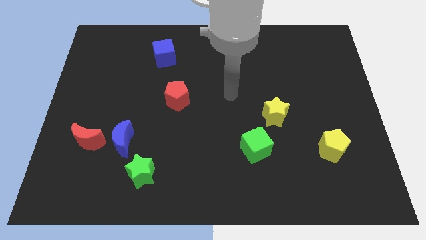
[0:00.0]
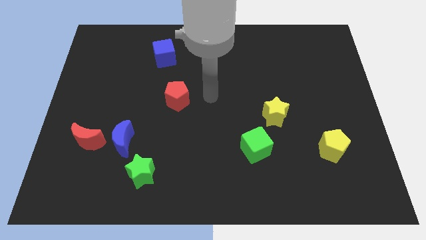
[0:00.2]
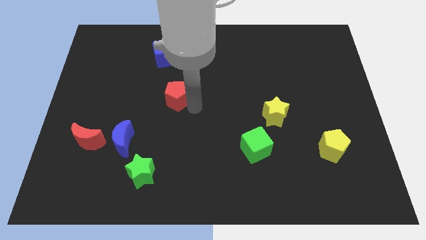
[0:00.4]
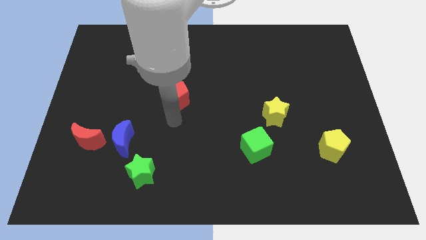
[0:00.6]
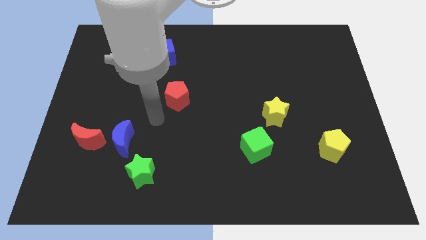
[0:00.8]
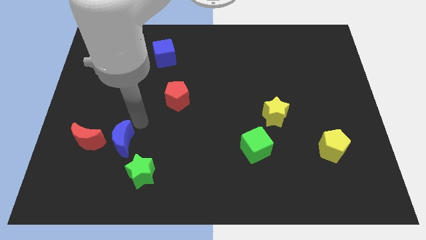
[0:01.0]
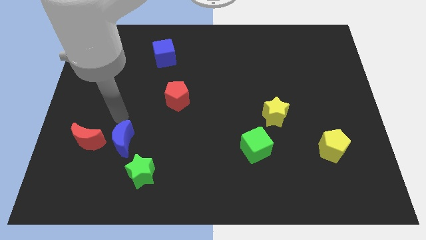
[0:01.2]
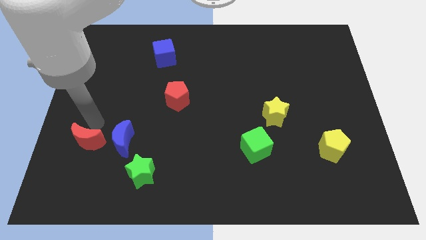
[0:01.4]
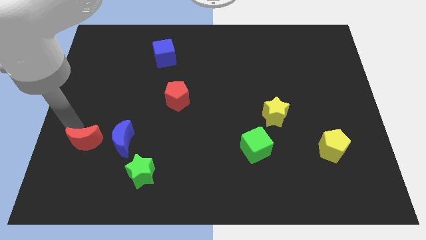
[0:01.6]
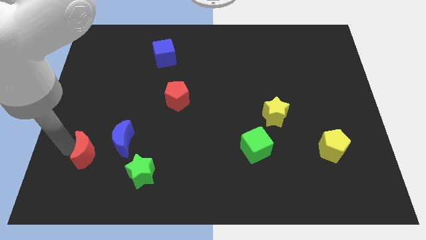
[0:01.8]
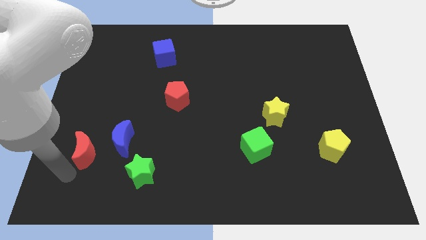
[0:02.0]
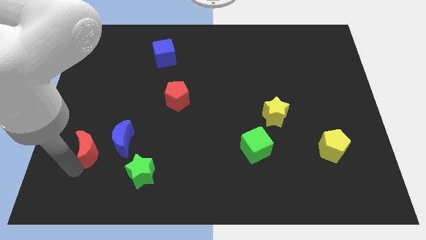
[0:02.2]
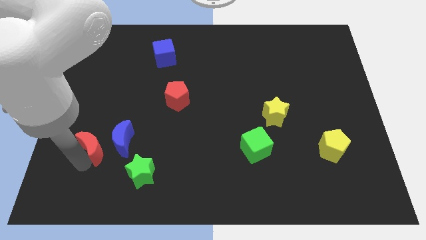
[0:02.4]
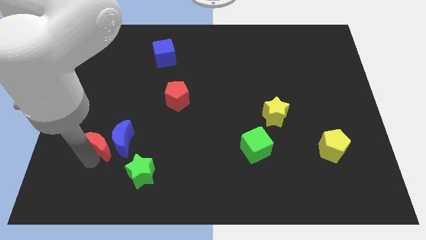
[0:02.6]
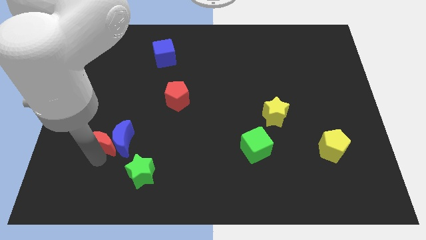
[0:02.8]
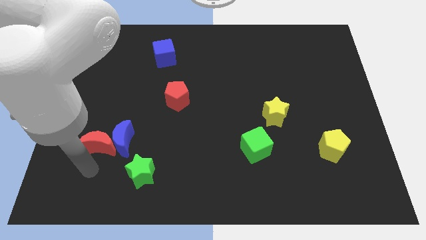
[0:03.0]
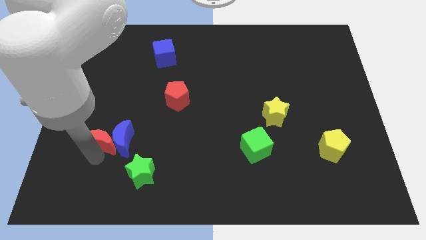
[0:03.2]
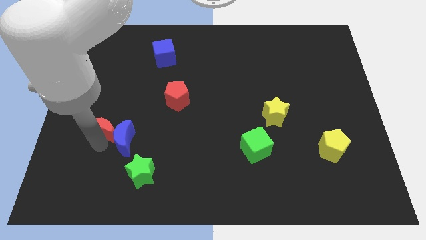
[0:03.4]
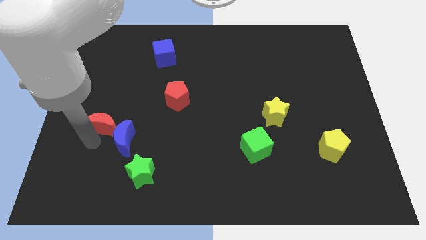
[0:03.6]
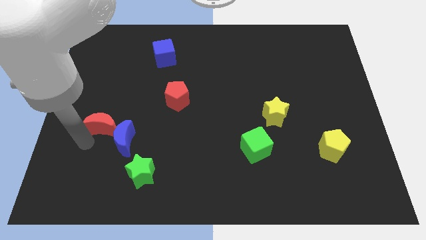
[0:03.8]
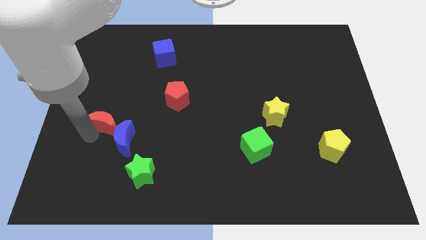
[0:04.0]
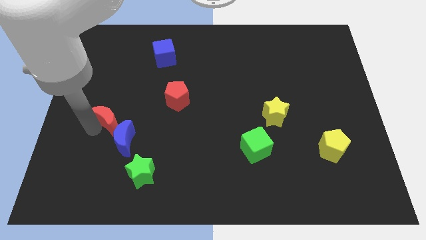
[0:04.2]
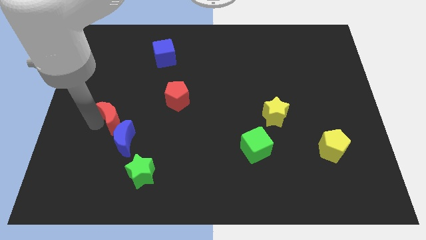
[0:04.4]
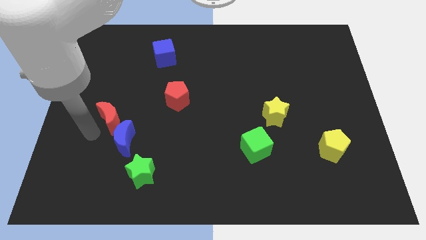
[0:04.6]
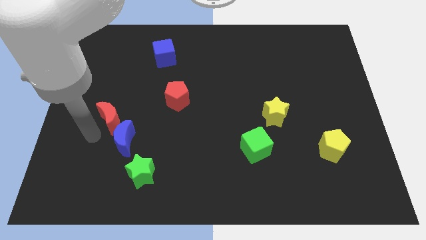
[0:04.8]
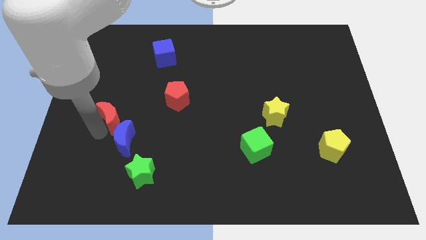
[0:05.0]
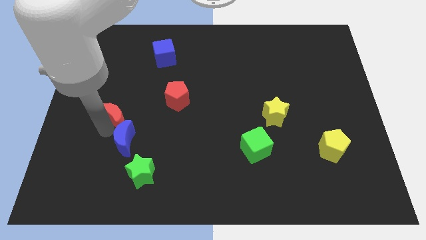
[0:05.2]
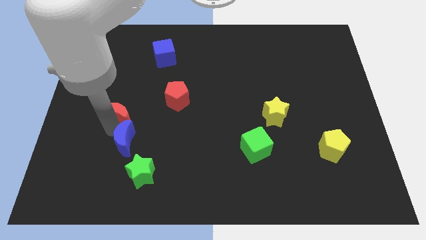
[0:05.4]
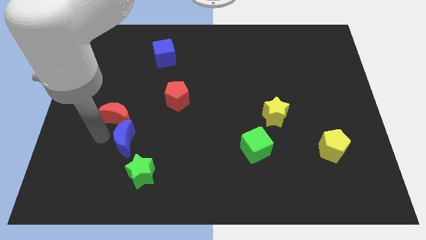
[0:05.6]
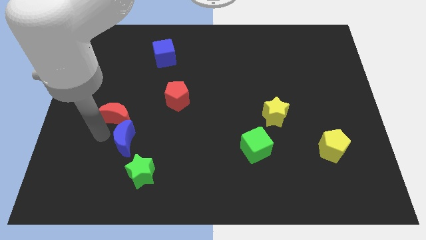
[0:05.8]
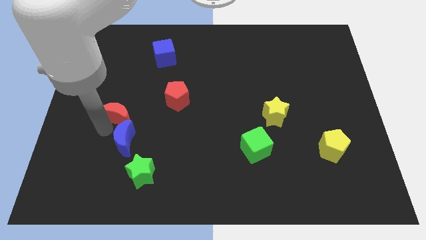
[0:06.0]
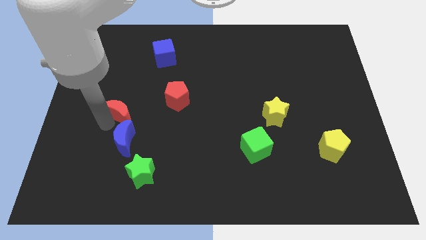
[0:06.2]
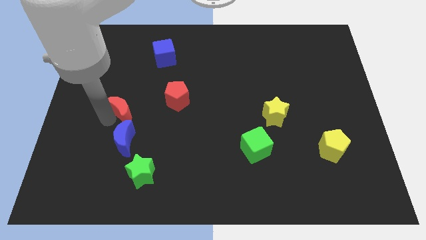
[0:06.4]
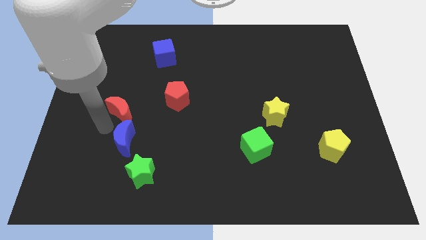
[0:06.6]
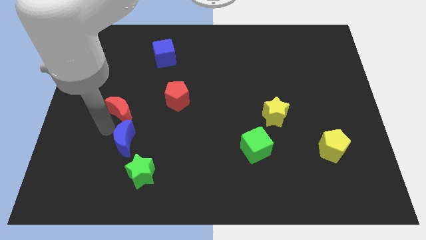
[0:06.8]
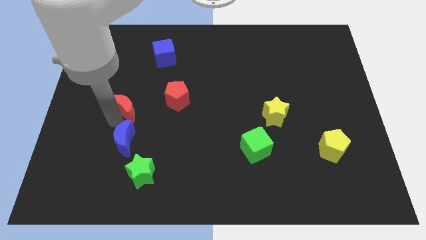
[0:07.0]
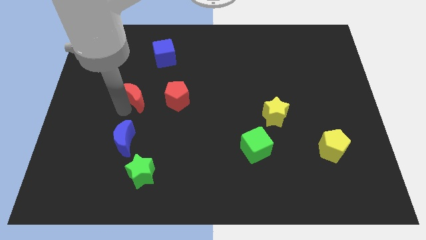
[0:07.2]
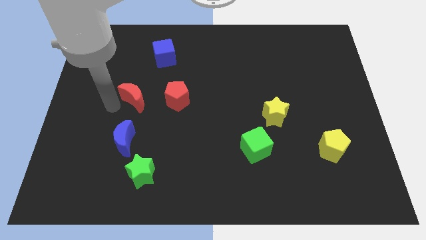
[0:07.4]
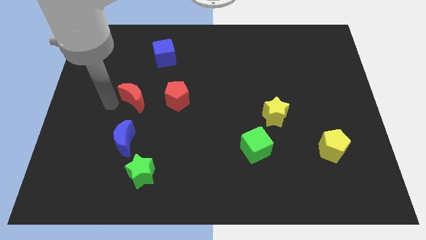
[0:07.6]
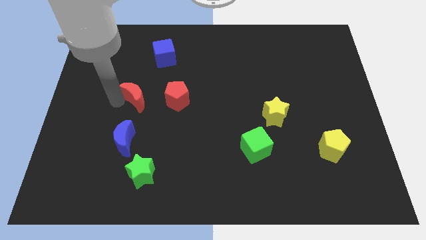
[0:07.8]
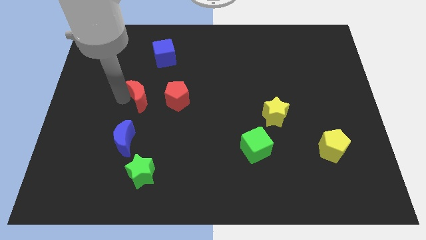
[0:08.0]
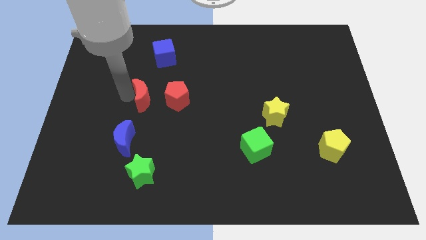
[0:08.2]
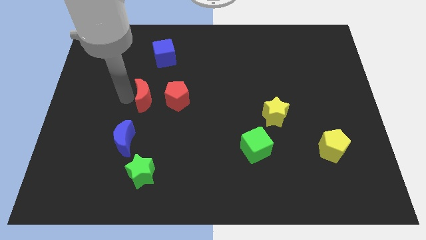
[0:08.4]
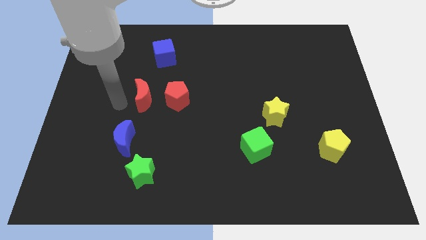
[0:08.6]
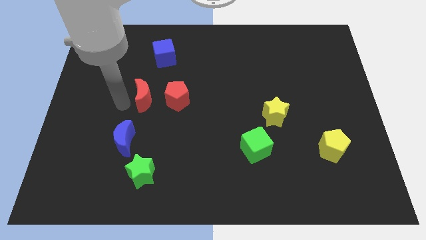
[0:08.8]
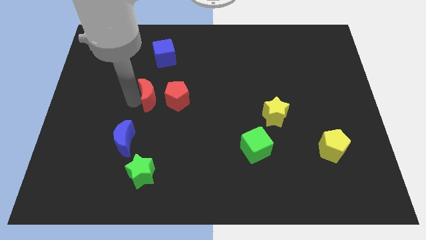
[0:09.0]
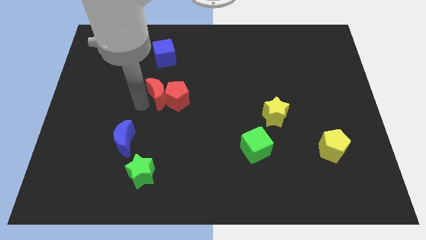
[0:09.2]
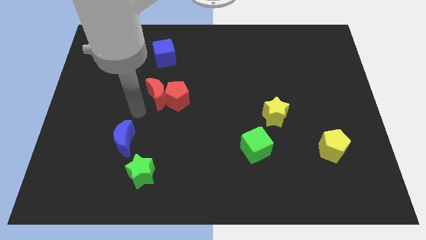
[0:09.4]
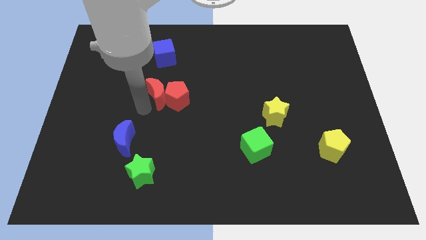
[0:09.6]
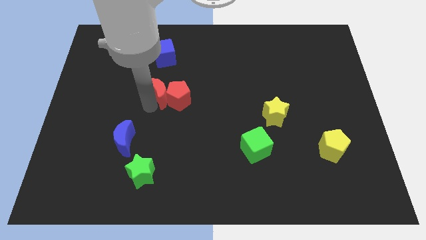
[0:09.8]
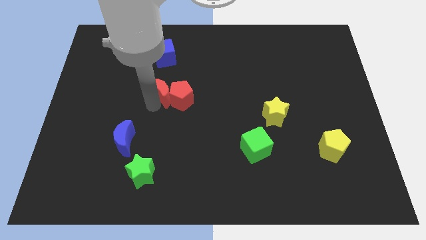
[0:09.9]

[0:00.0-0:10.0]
push the red moon up and right diagonally

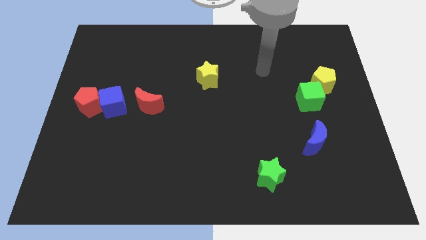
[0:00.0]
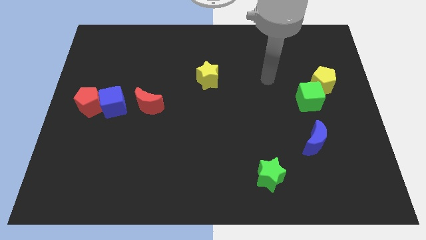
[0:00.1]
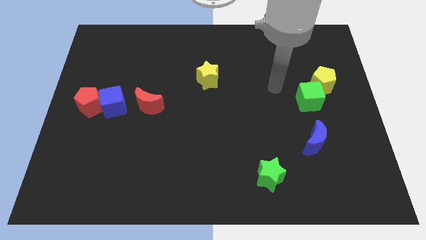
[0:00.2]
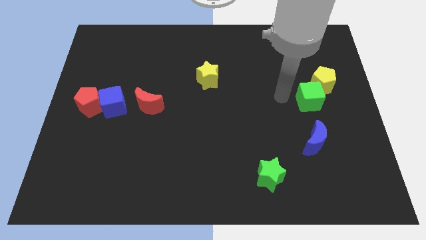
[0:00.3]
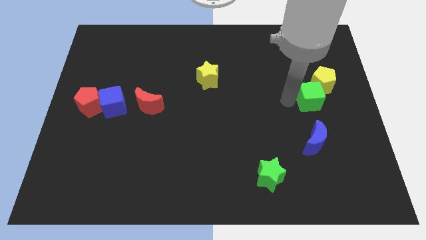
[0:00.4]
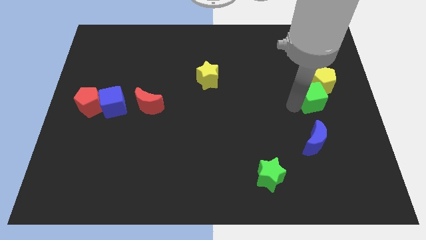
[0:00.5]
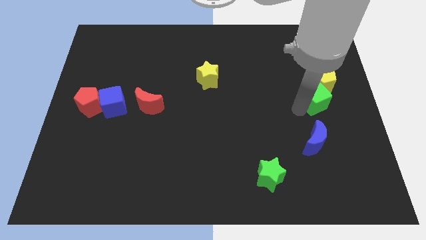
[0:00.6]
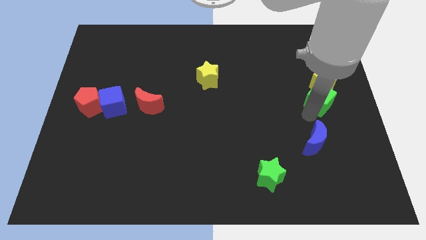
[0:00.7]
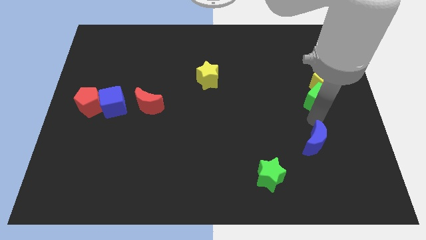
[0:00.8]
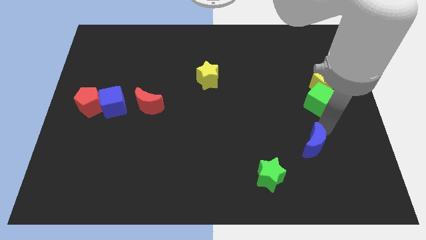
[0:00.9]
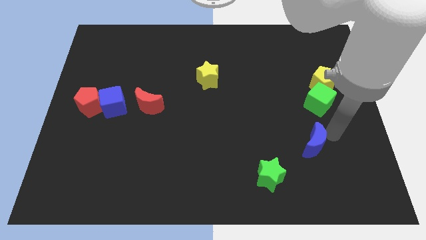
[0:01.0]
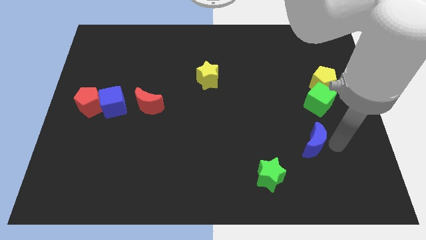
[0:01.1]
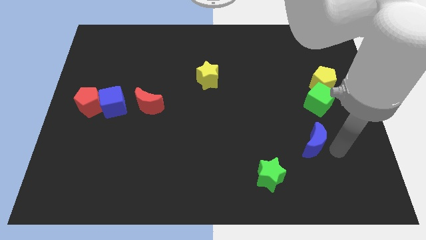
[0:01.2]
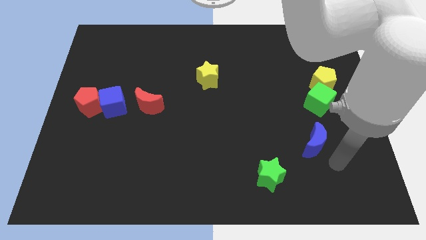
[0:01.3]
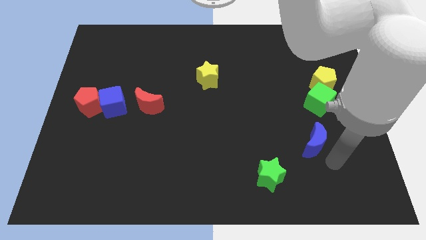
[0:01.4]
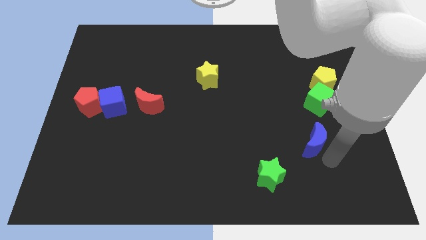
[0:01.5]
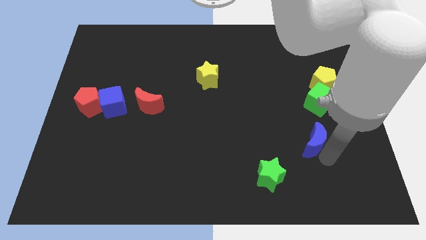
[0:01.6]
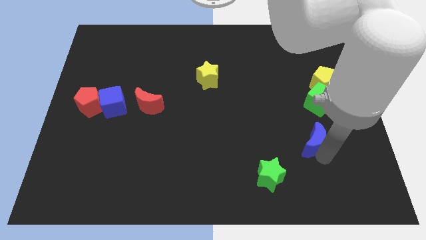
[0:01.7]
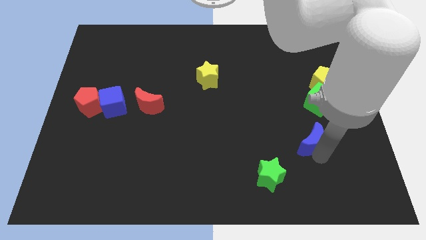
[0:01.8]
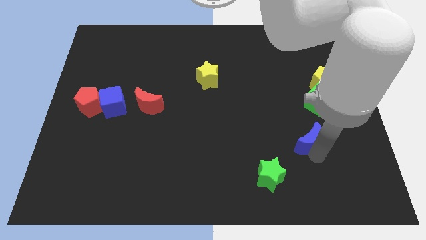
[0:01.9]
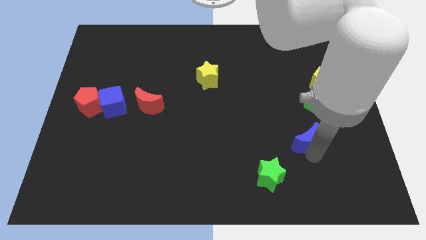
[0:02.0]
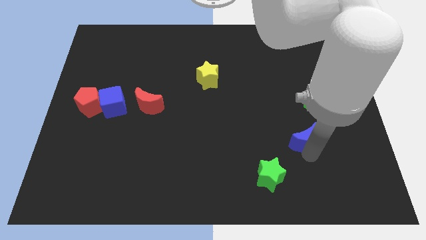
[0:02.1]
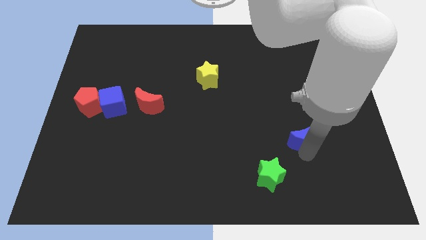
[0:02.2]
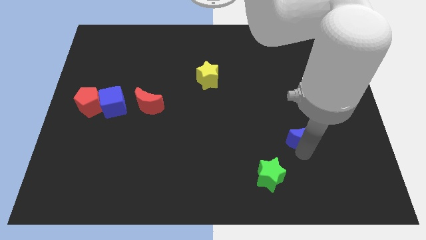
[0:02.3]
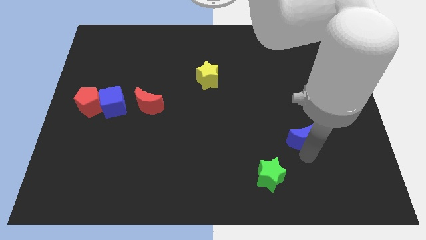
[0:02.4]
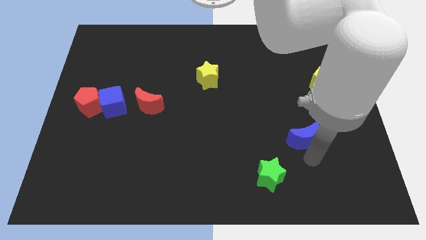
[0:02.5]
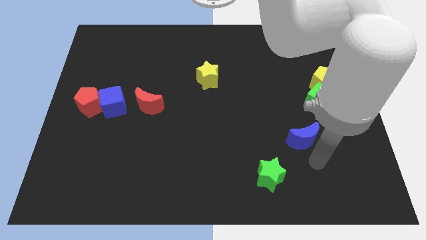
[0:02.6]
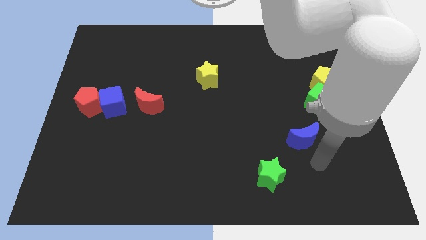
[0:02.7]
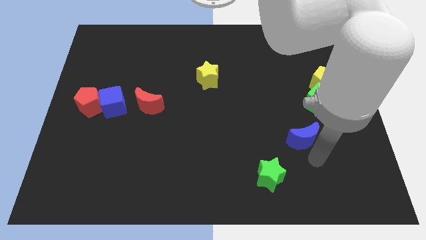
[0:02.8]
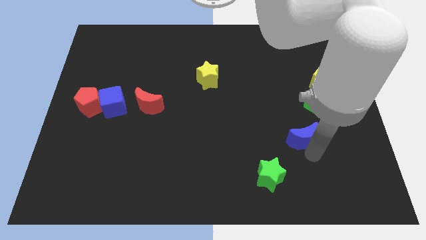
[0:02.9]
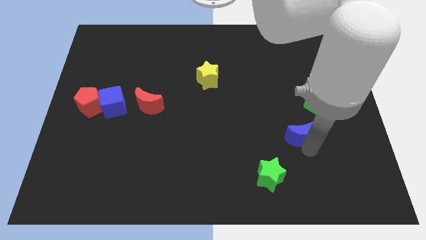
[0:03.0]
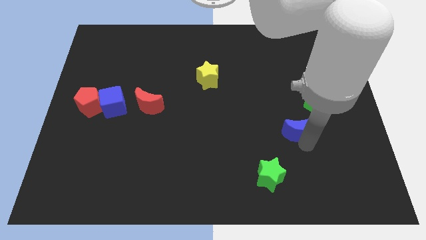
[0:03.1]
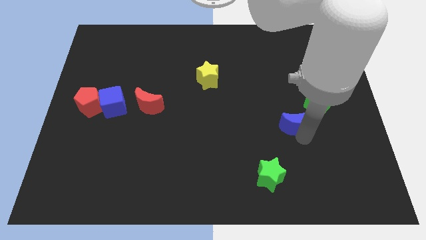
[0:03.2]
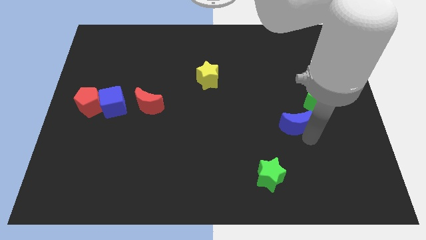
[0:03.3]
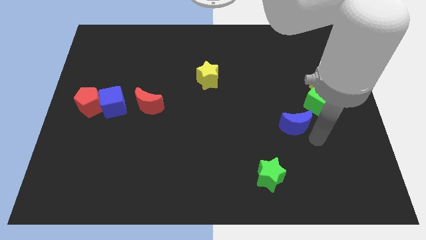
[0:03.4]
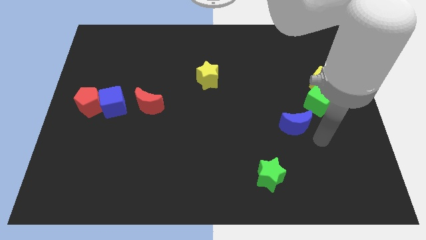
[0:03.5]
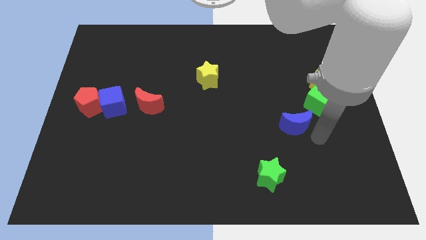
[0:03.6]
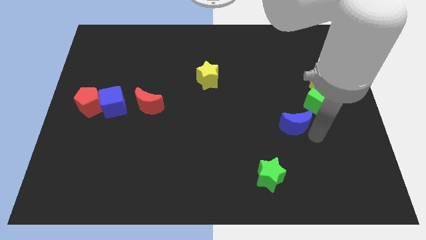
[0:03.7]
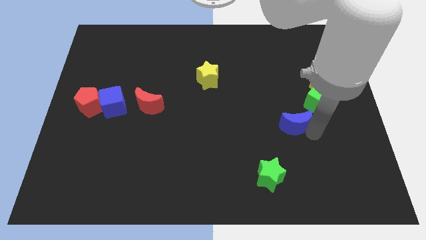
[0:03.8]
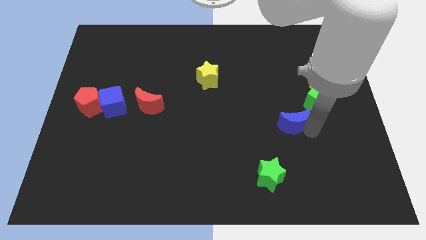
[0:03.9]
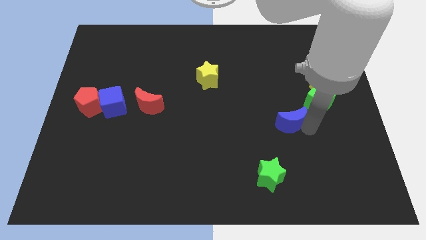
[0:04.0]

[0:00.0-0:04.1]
push the blue moon somewhat upwards and then to the left
